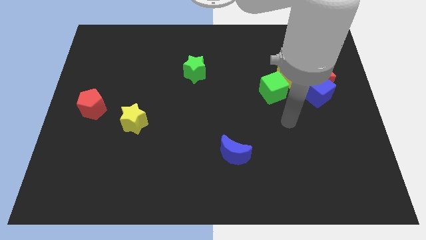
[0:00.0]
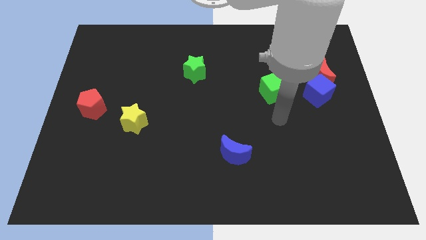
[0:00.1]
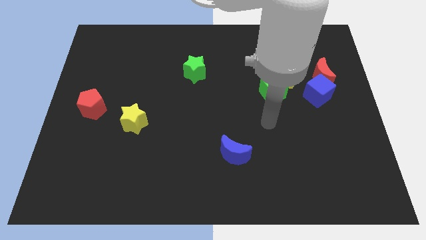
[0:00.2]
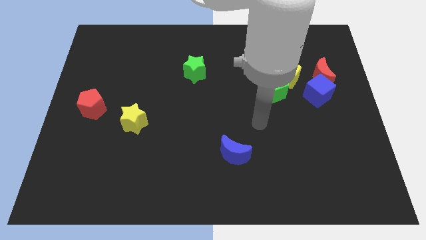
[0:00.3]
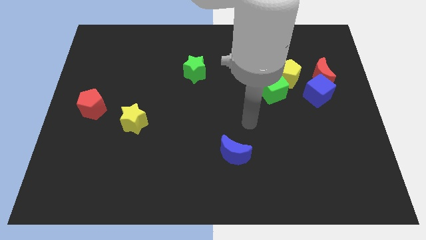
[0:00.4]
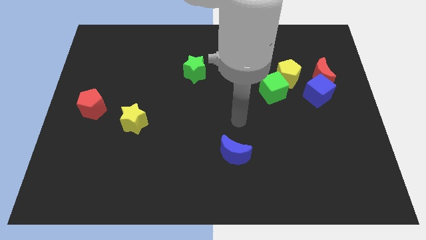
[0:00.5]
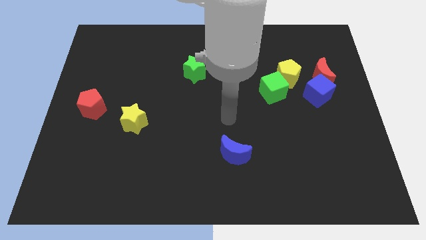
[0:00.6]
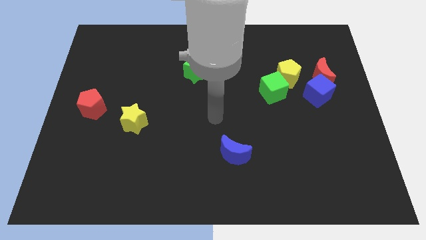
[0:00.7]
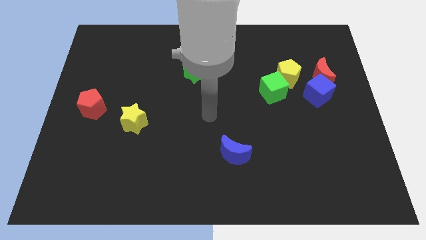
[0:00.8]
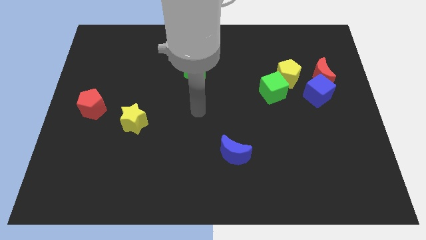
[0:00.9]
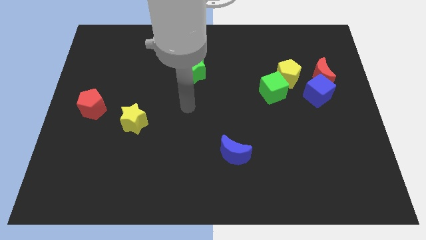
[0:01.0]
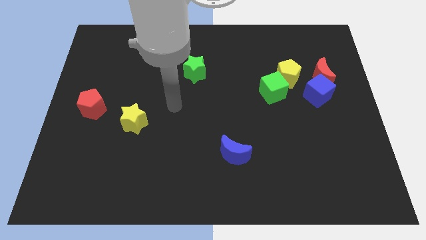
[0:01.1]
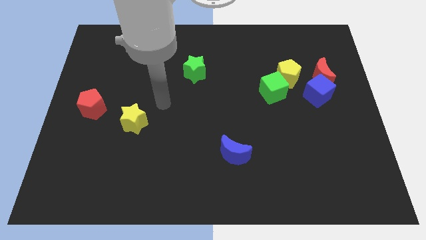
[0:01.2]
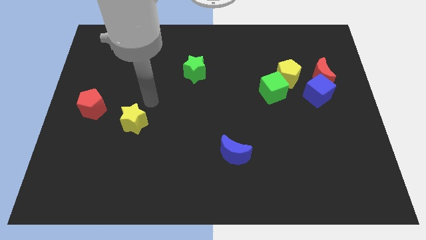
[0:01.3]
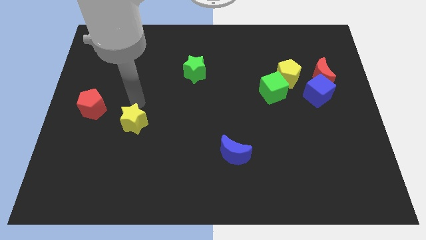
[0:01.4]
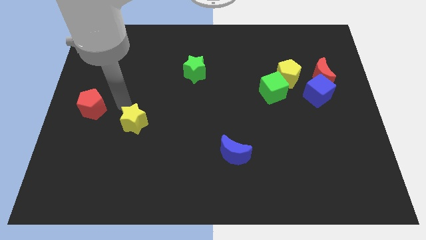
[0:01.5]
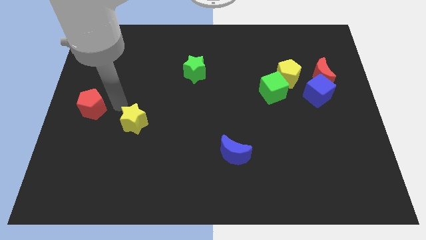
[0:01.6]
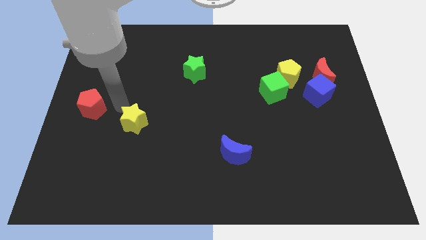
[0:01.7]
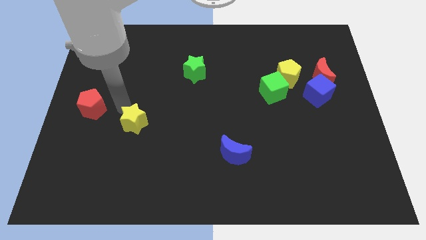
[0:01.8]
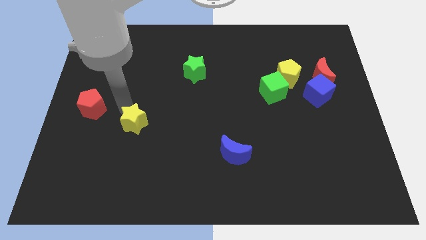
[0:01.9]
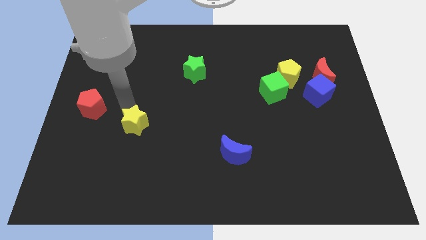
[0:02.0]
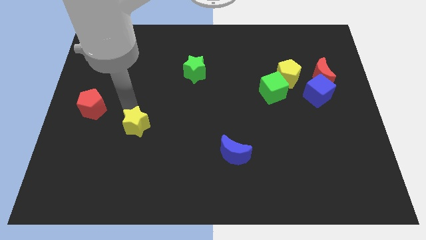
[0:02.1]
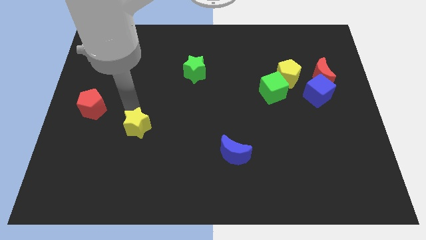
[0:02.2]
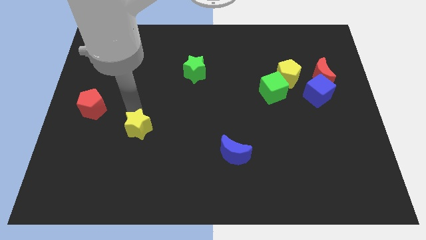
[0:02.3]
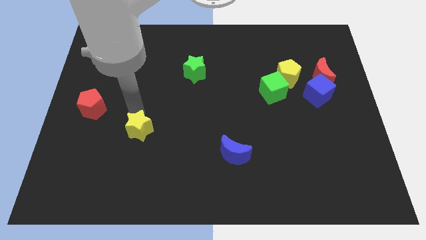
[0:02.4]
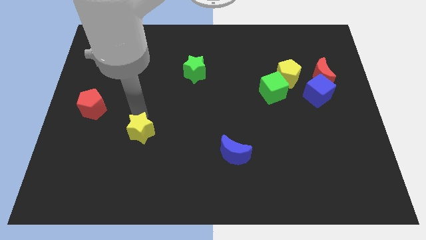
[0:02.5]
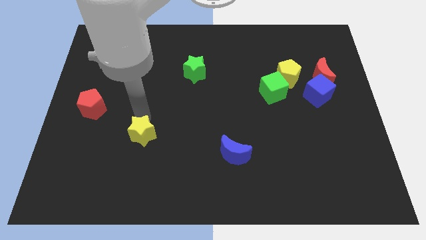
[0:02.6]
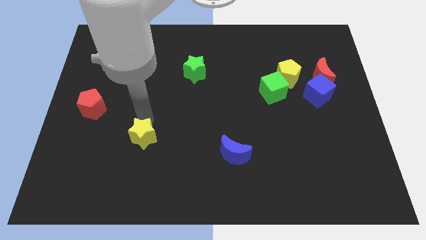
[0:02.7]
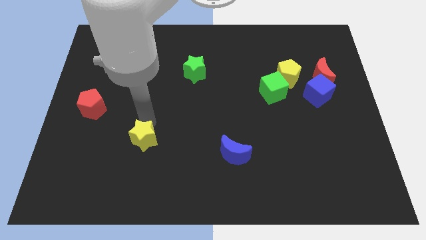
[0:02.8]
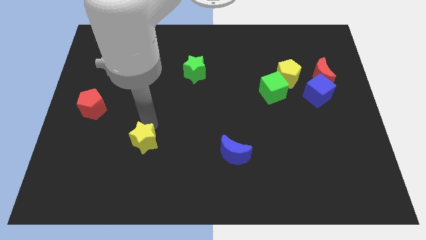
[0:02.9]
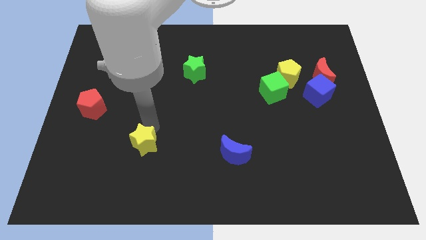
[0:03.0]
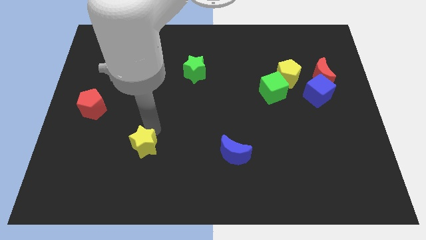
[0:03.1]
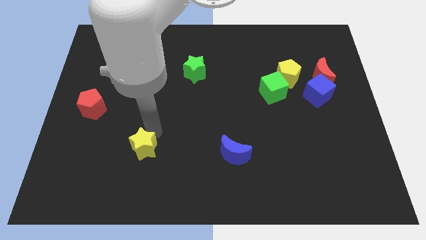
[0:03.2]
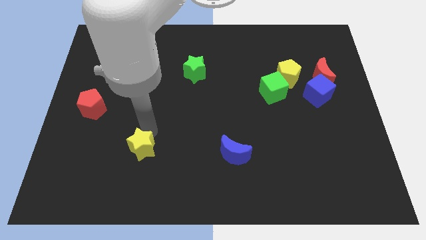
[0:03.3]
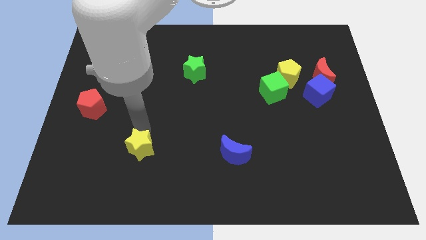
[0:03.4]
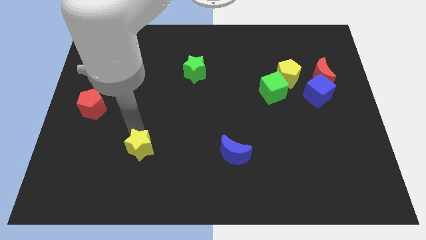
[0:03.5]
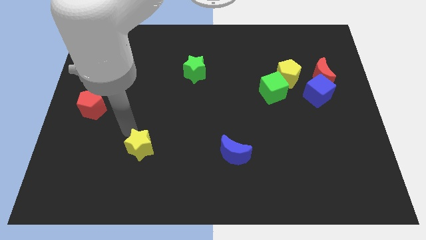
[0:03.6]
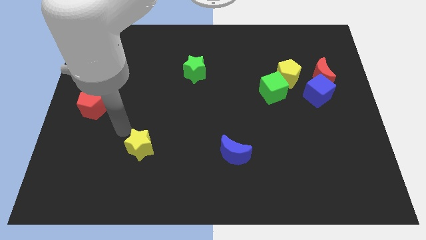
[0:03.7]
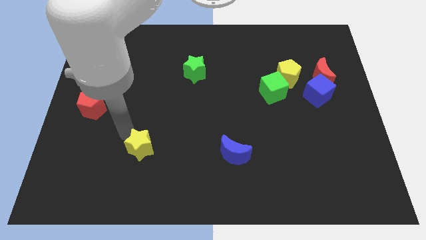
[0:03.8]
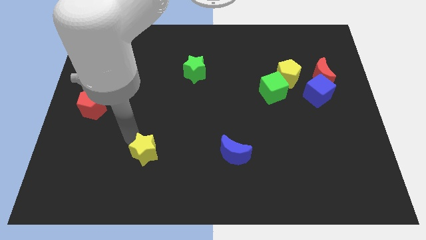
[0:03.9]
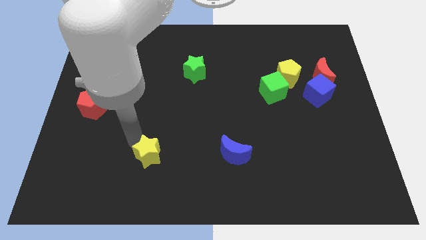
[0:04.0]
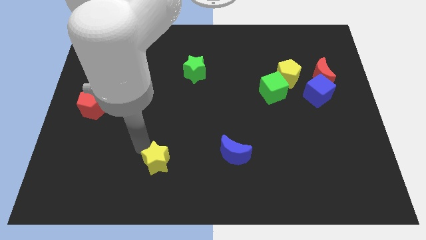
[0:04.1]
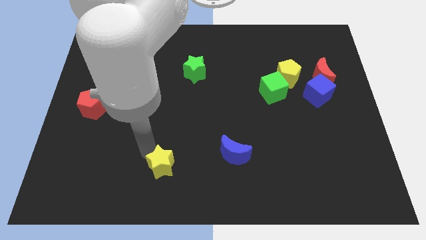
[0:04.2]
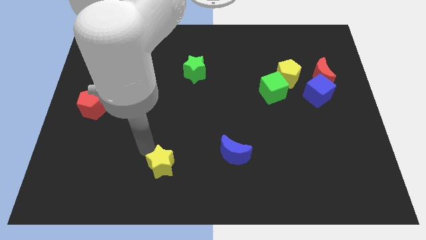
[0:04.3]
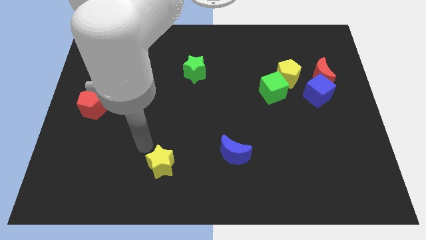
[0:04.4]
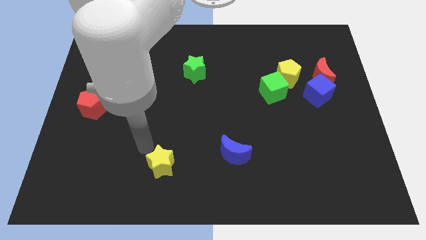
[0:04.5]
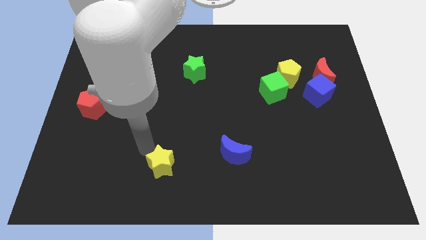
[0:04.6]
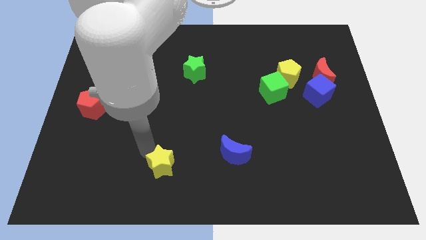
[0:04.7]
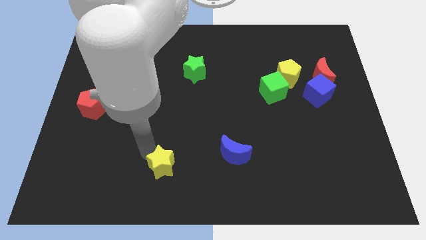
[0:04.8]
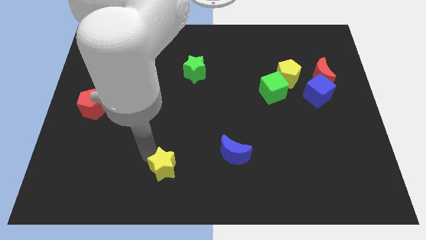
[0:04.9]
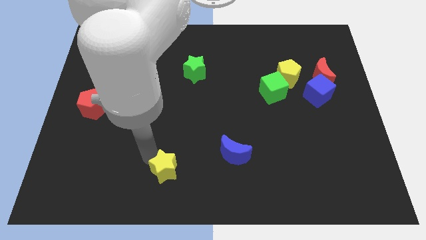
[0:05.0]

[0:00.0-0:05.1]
slide the yellow star to the bottom
